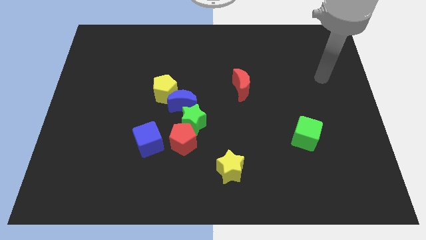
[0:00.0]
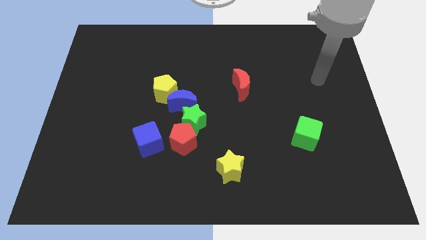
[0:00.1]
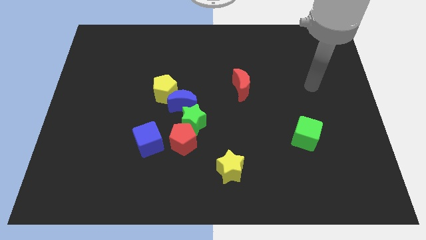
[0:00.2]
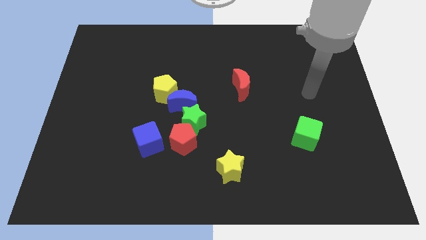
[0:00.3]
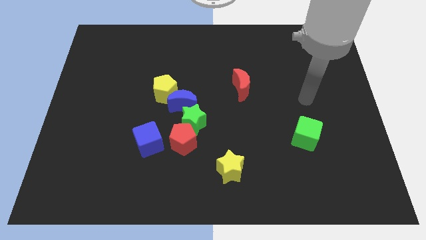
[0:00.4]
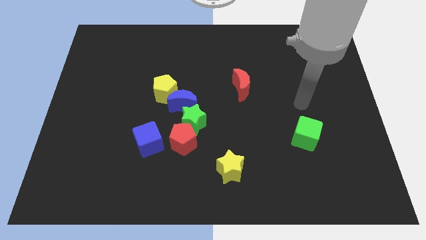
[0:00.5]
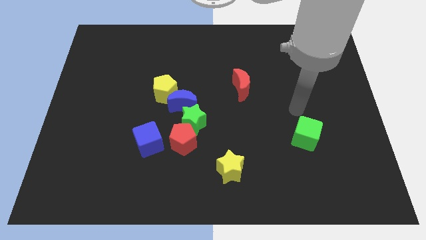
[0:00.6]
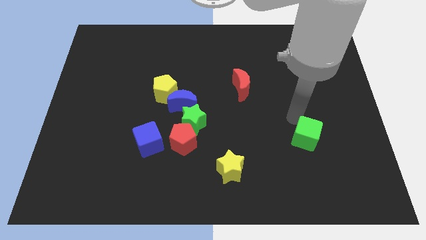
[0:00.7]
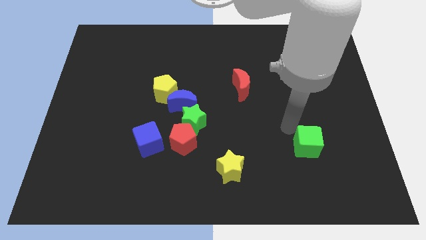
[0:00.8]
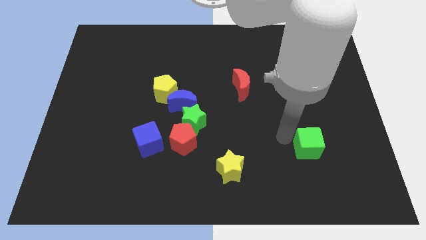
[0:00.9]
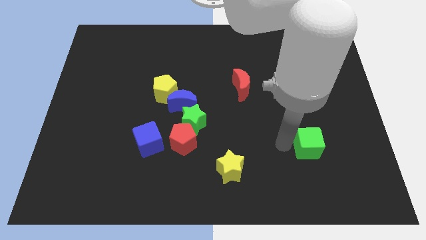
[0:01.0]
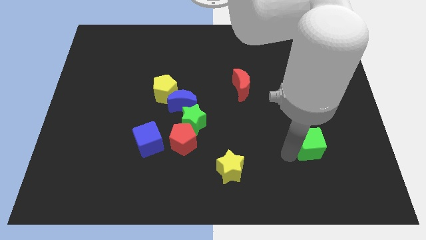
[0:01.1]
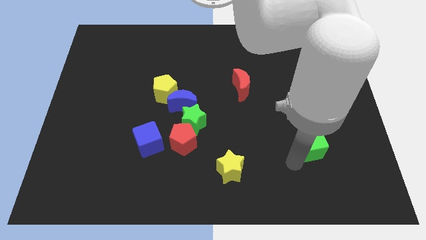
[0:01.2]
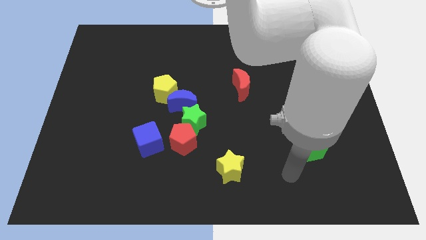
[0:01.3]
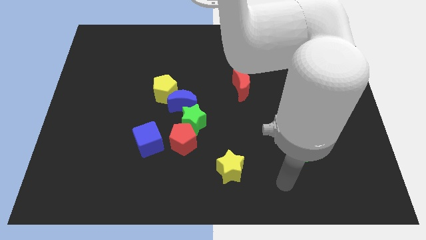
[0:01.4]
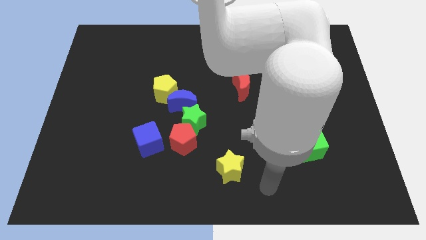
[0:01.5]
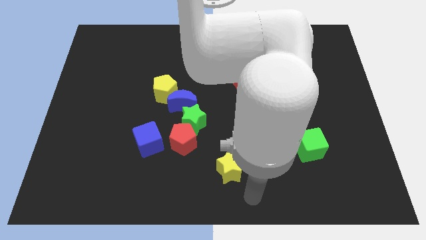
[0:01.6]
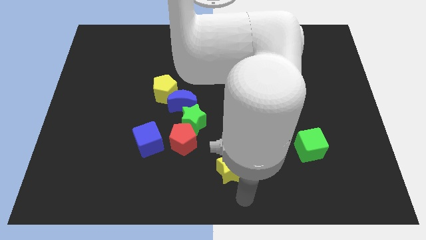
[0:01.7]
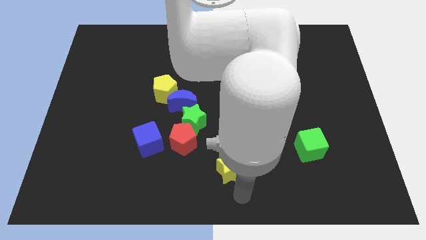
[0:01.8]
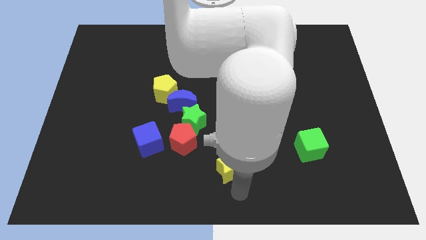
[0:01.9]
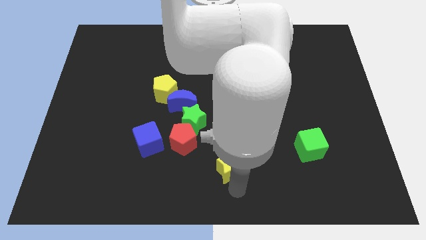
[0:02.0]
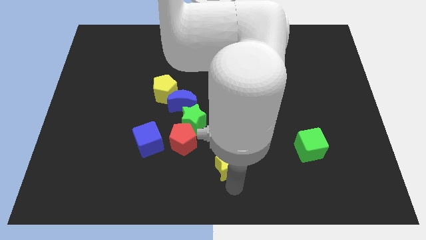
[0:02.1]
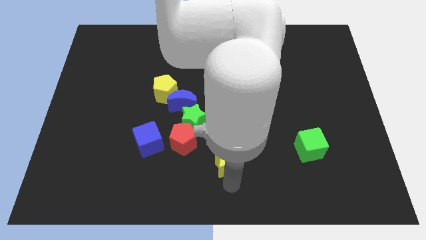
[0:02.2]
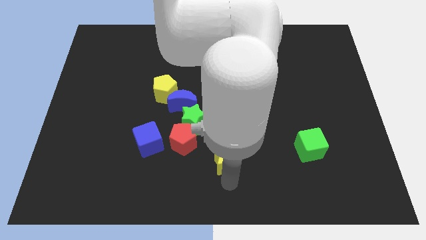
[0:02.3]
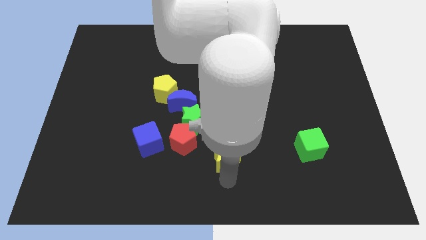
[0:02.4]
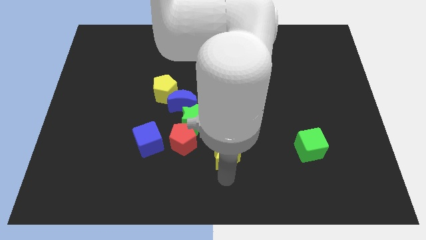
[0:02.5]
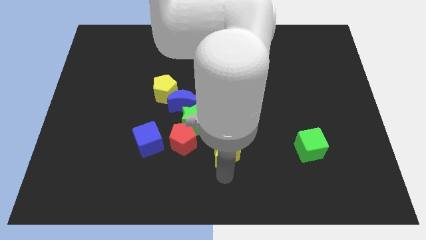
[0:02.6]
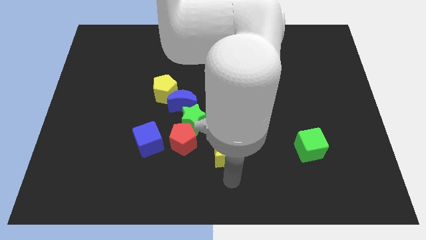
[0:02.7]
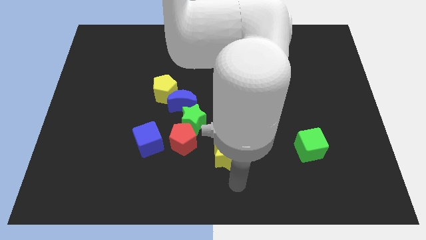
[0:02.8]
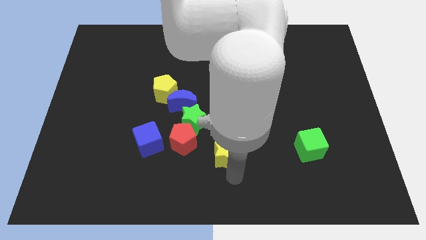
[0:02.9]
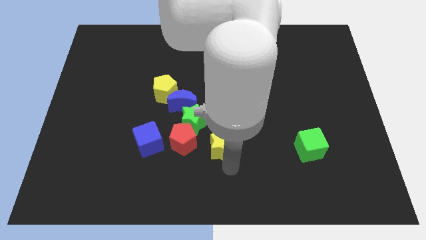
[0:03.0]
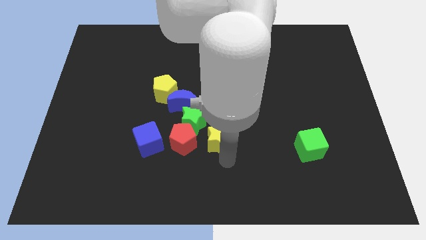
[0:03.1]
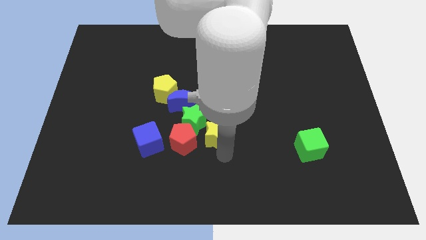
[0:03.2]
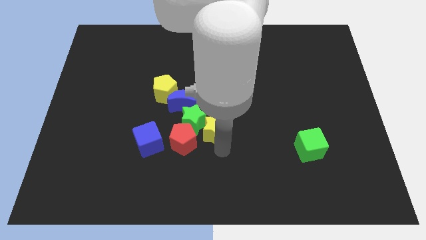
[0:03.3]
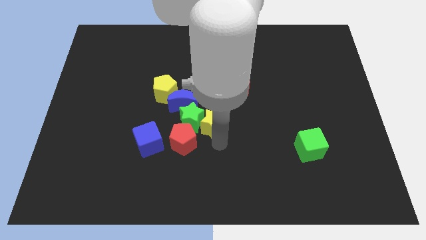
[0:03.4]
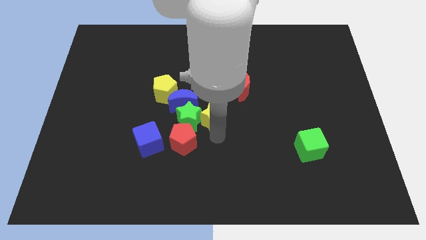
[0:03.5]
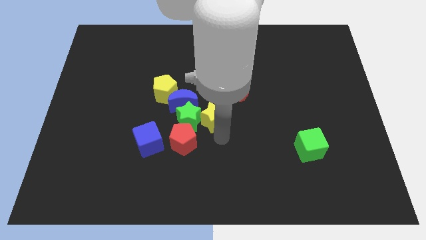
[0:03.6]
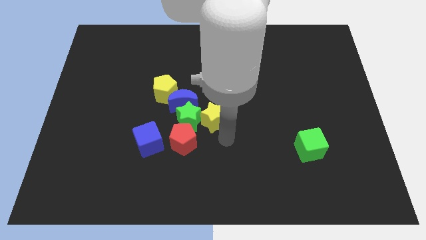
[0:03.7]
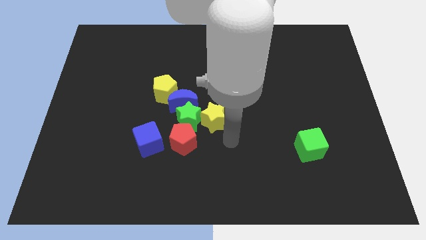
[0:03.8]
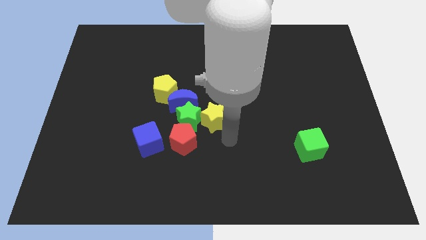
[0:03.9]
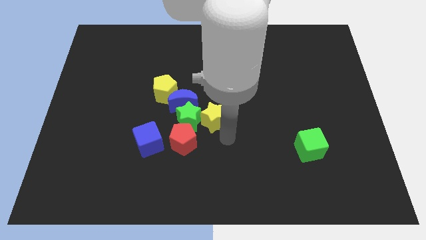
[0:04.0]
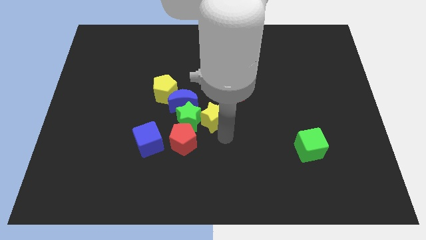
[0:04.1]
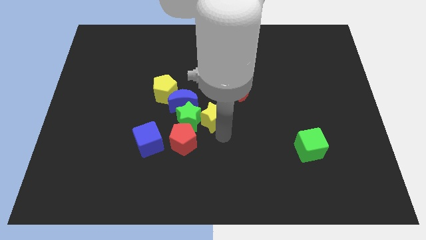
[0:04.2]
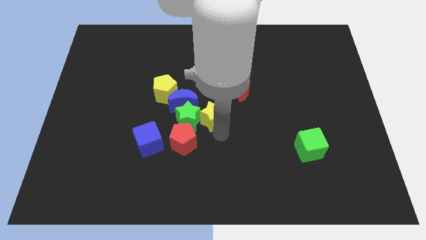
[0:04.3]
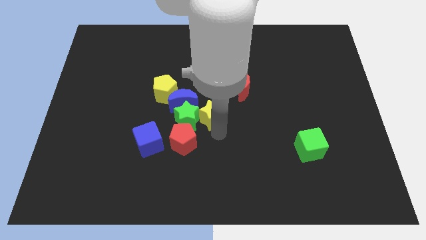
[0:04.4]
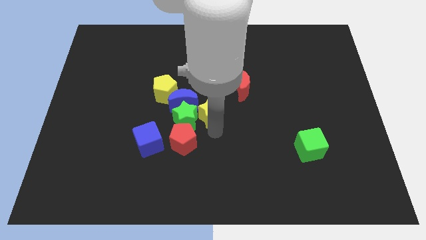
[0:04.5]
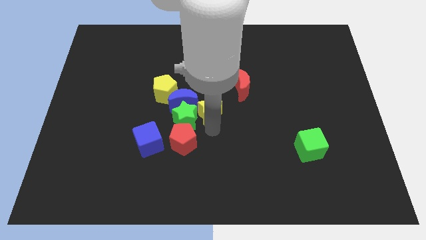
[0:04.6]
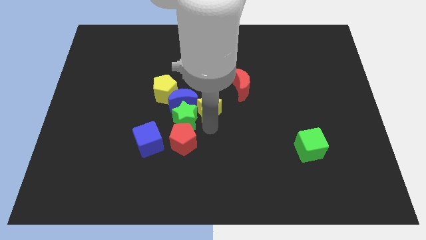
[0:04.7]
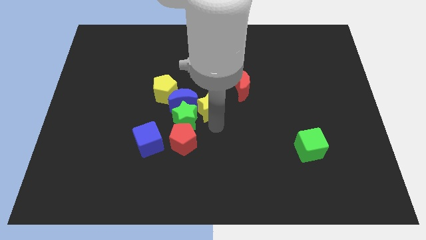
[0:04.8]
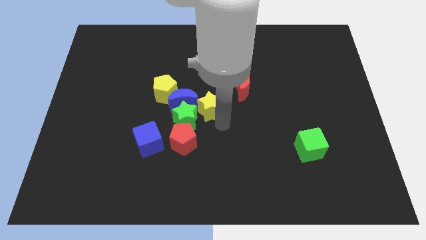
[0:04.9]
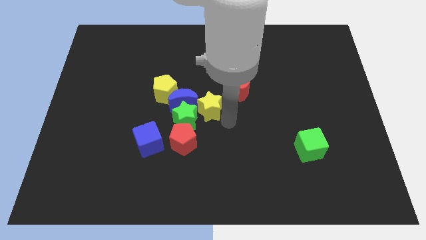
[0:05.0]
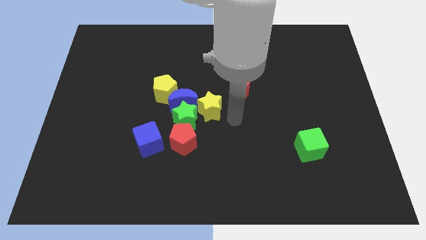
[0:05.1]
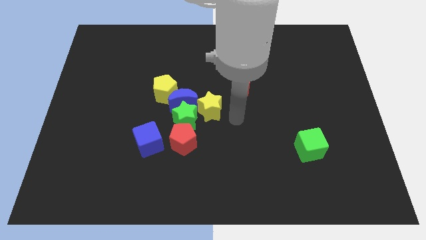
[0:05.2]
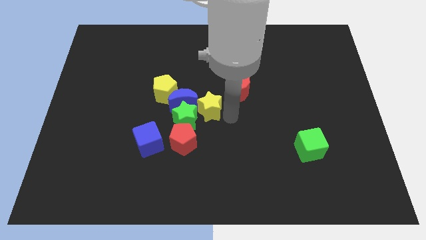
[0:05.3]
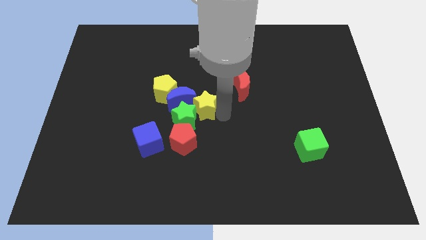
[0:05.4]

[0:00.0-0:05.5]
move the yellow star towards the blue moon

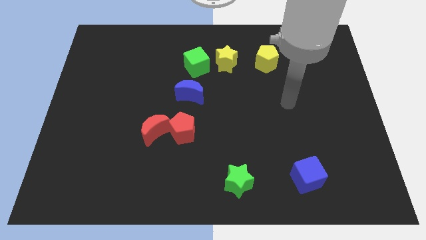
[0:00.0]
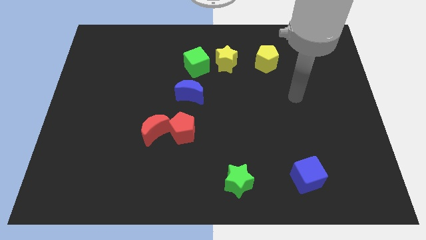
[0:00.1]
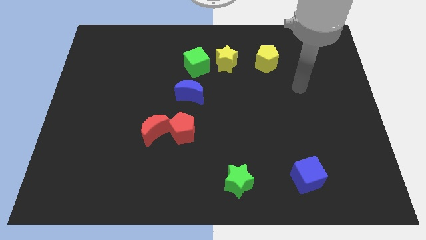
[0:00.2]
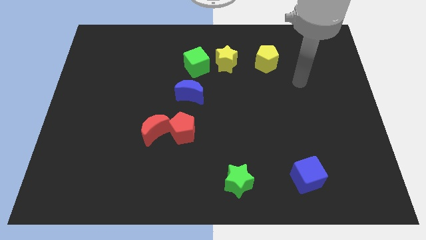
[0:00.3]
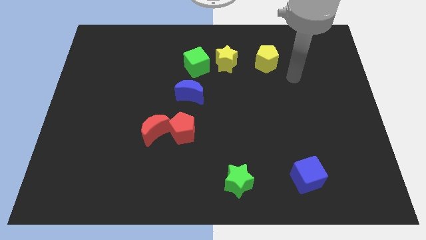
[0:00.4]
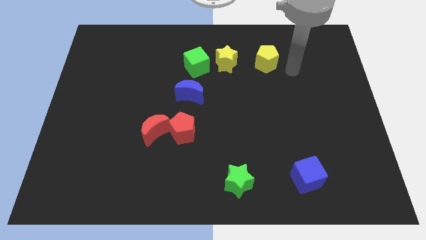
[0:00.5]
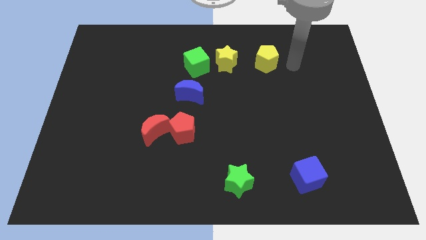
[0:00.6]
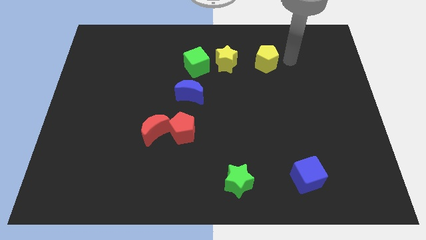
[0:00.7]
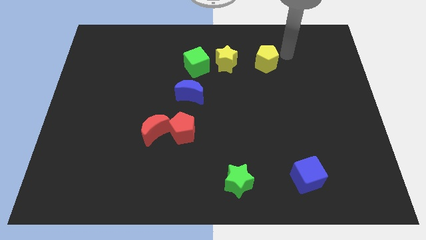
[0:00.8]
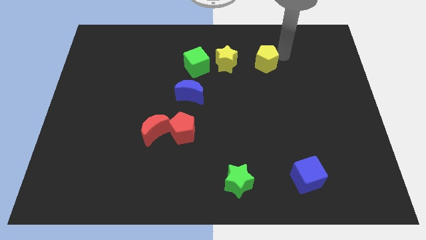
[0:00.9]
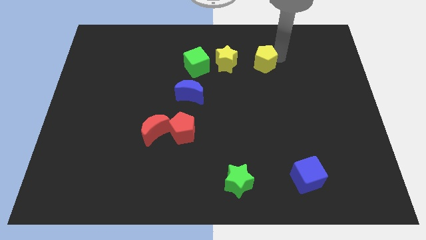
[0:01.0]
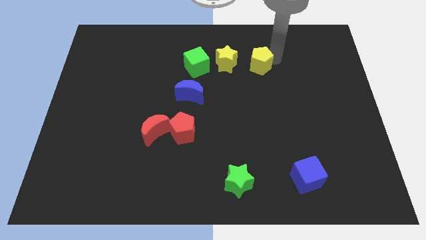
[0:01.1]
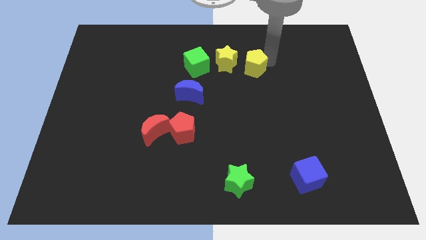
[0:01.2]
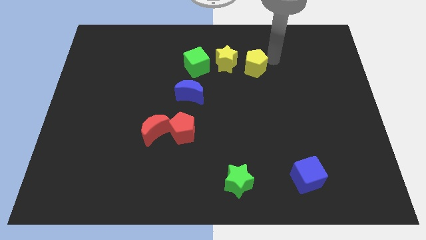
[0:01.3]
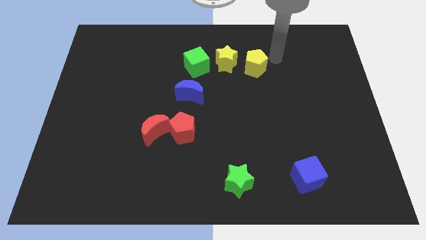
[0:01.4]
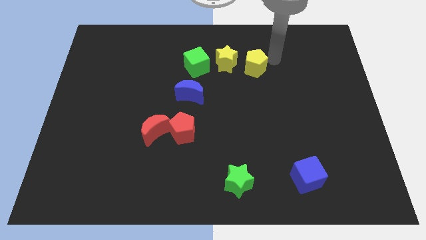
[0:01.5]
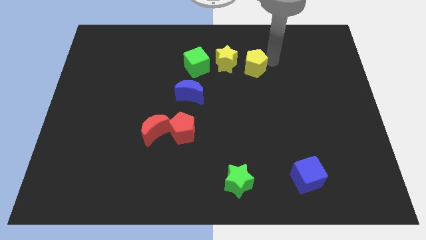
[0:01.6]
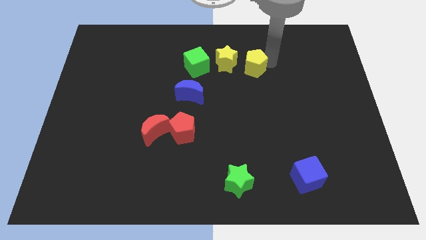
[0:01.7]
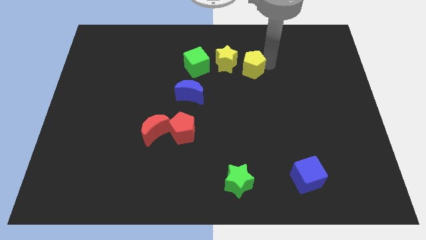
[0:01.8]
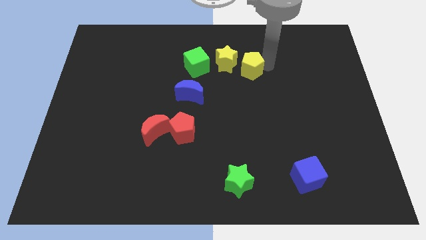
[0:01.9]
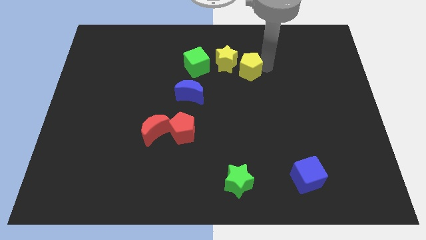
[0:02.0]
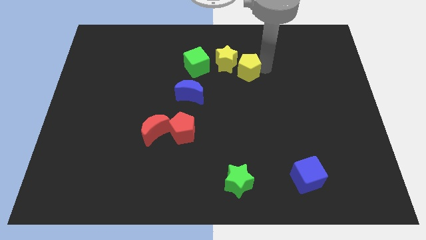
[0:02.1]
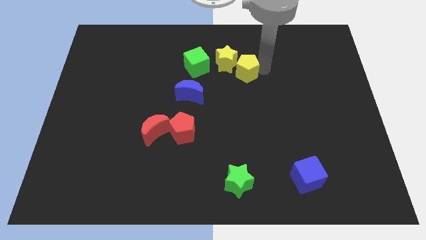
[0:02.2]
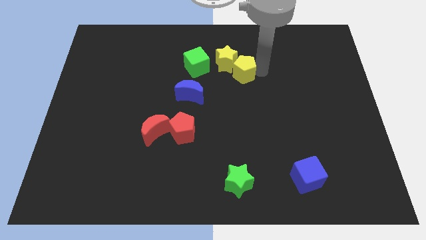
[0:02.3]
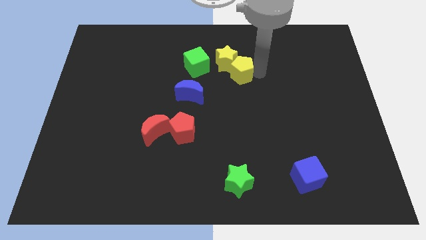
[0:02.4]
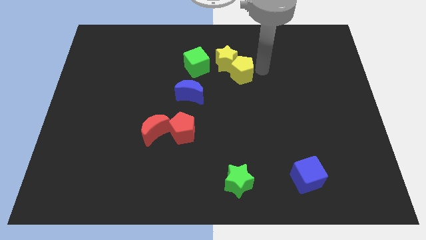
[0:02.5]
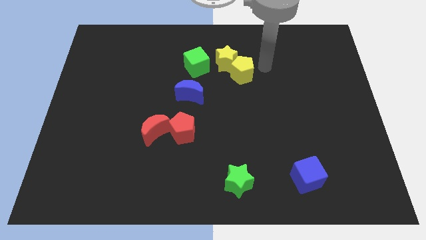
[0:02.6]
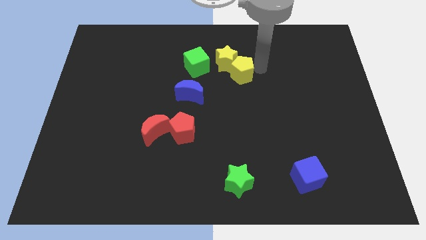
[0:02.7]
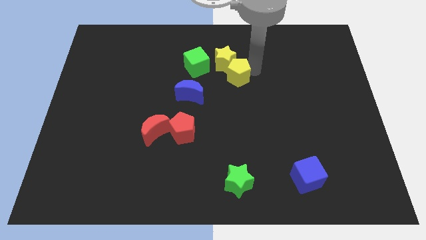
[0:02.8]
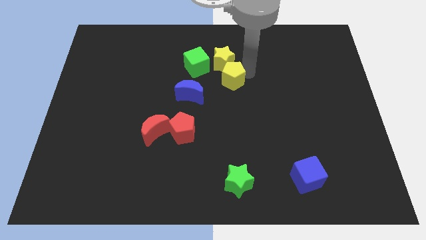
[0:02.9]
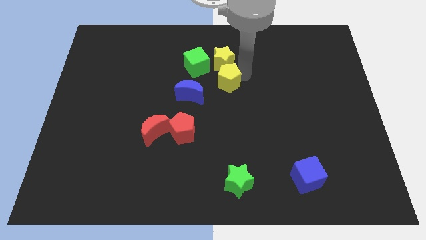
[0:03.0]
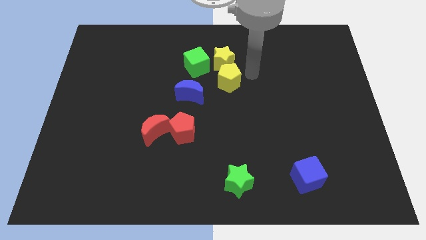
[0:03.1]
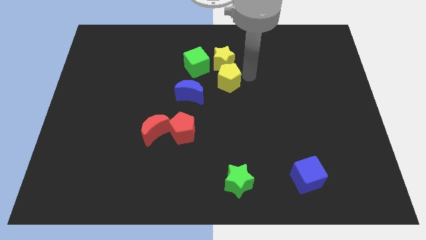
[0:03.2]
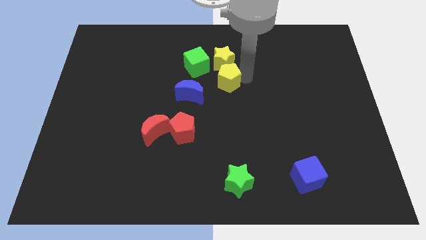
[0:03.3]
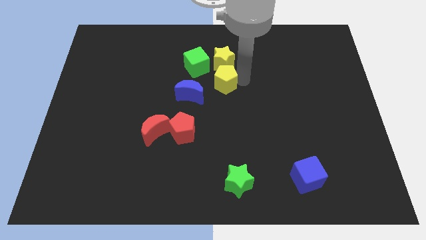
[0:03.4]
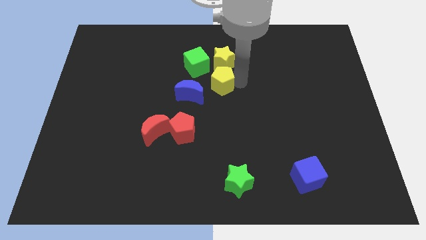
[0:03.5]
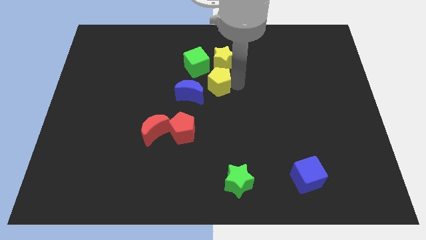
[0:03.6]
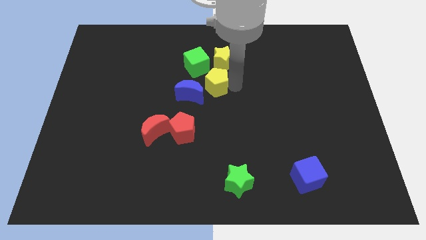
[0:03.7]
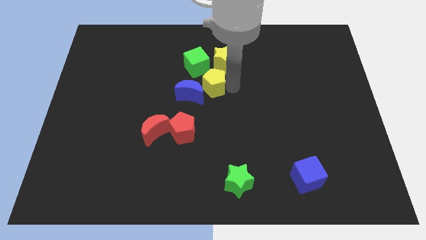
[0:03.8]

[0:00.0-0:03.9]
slide the yellow pentagon towards the blue moon
